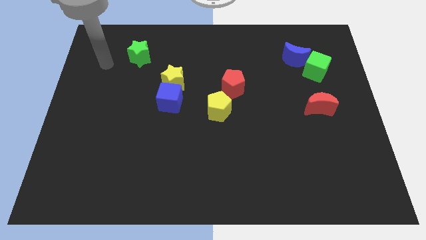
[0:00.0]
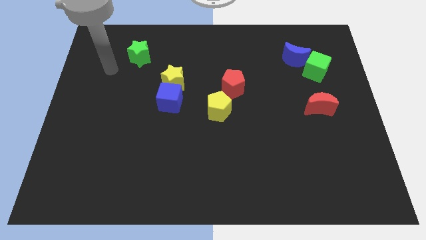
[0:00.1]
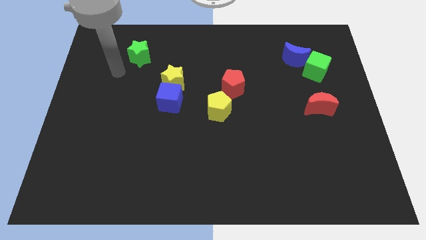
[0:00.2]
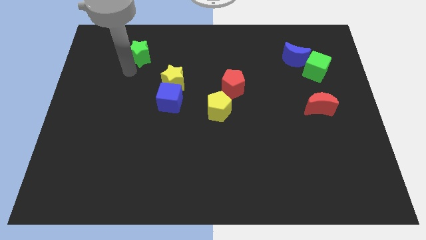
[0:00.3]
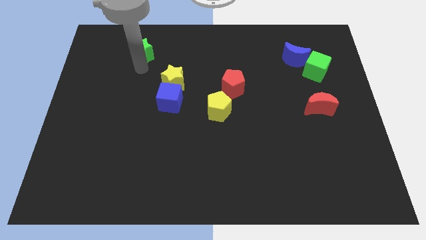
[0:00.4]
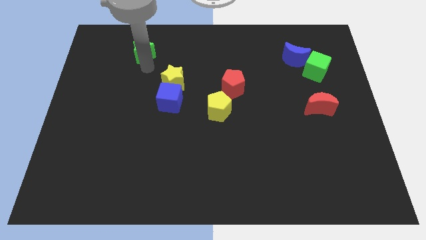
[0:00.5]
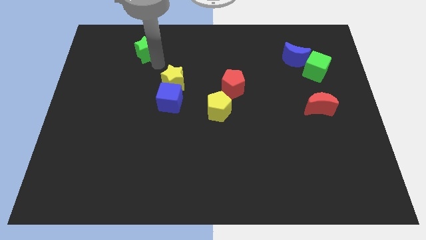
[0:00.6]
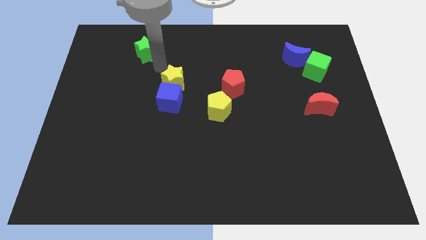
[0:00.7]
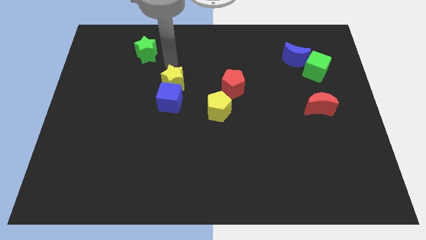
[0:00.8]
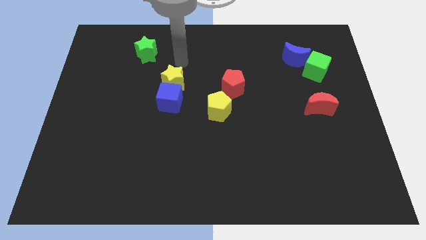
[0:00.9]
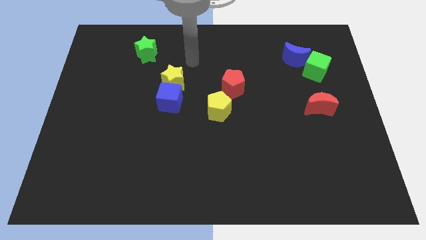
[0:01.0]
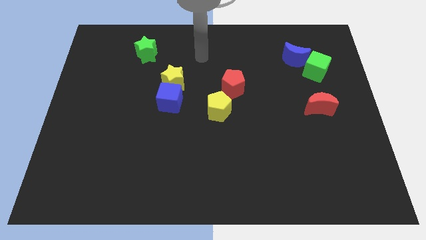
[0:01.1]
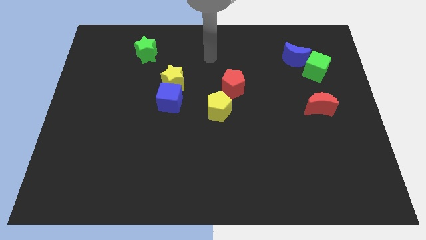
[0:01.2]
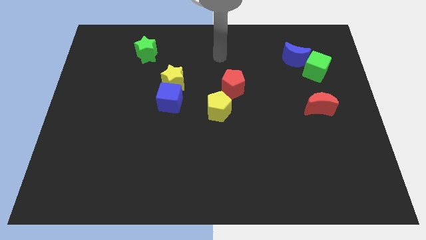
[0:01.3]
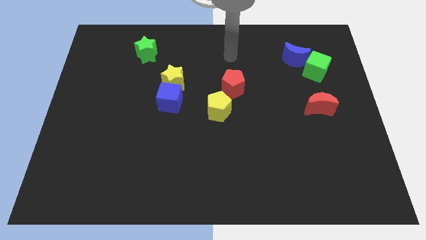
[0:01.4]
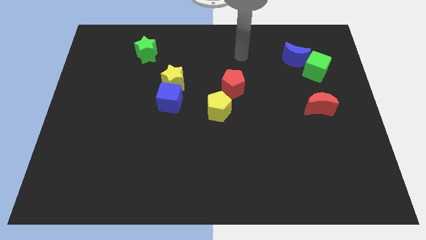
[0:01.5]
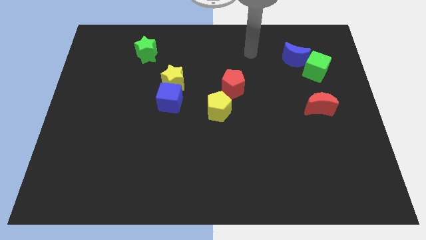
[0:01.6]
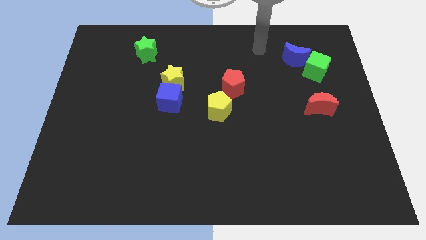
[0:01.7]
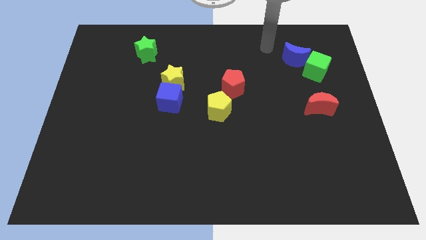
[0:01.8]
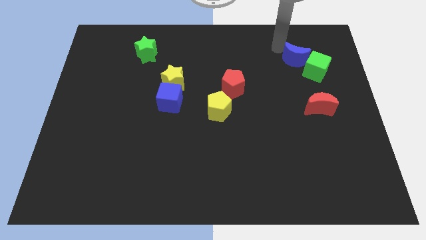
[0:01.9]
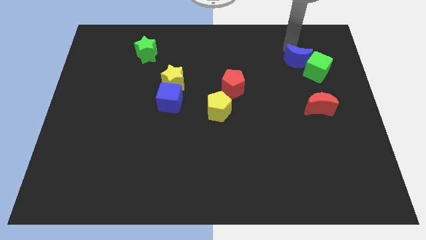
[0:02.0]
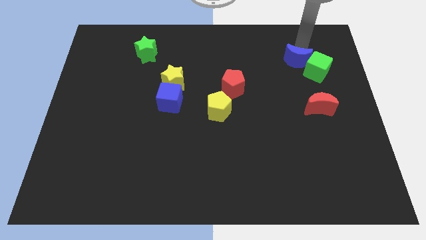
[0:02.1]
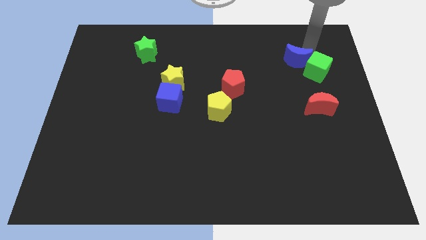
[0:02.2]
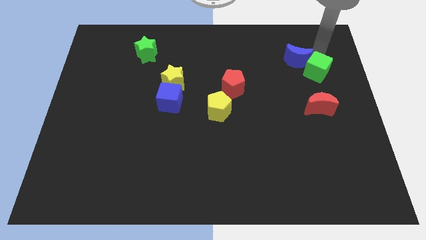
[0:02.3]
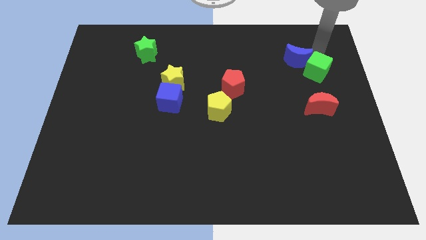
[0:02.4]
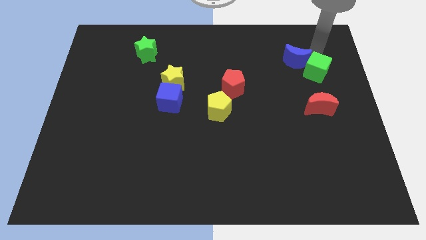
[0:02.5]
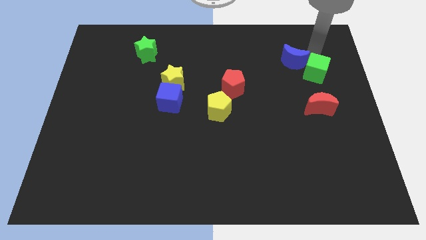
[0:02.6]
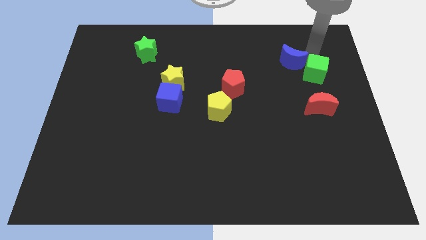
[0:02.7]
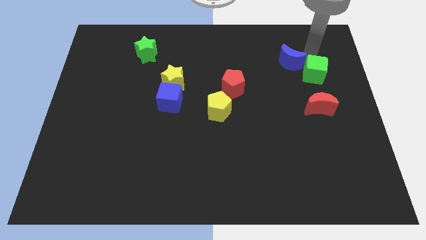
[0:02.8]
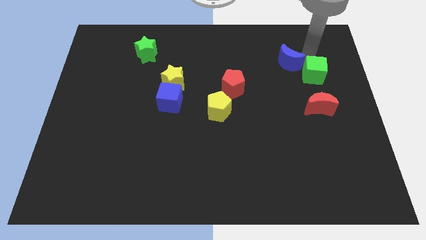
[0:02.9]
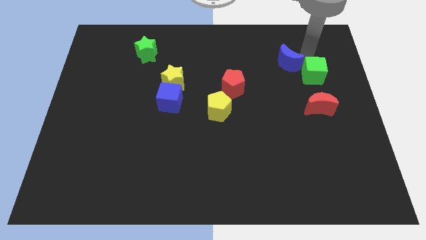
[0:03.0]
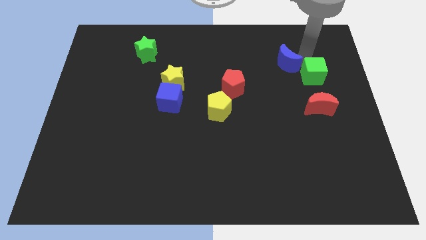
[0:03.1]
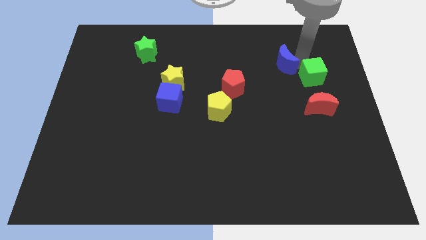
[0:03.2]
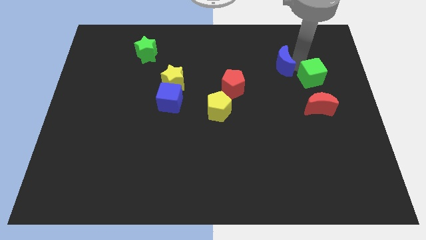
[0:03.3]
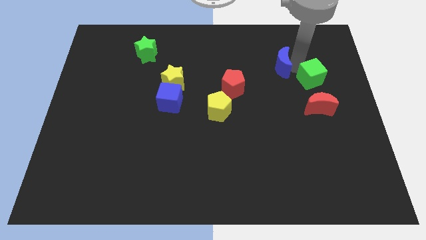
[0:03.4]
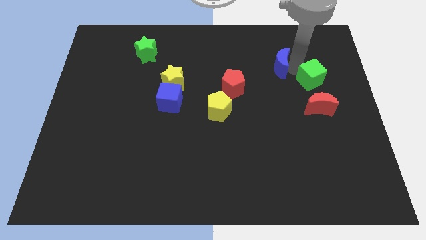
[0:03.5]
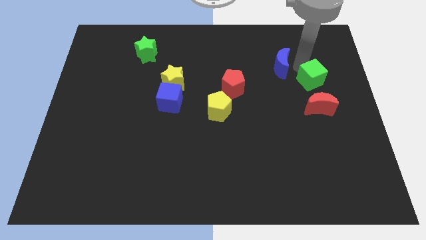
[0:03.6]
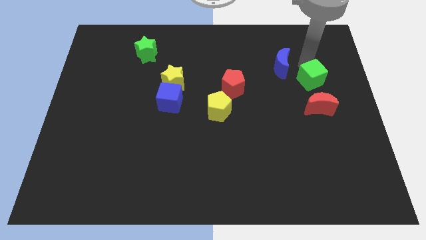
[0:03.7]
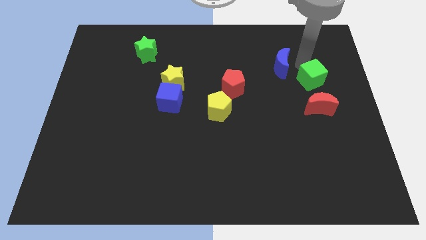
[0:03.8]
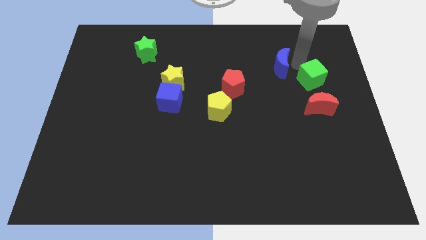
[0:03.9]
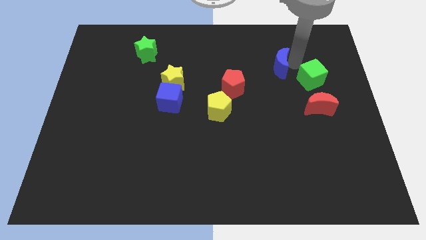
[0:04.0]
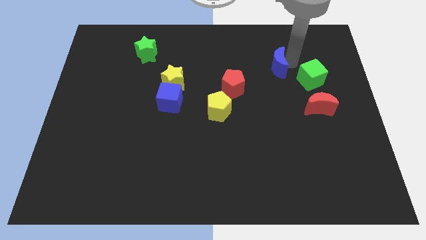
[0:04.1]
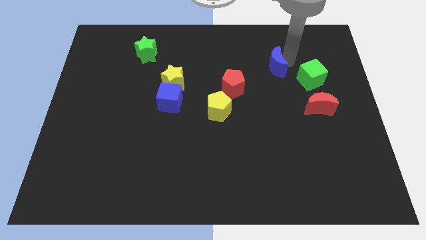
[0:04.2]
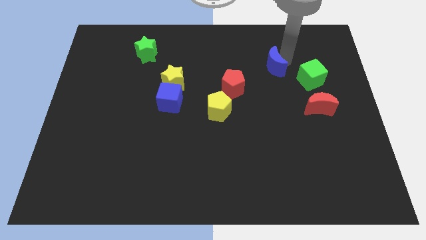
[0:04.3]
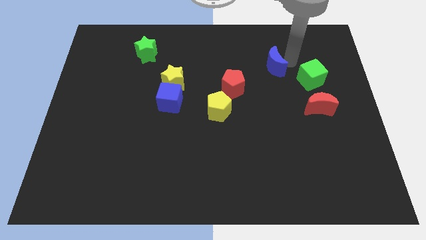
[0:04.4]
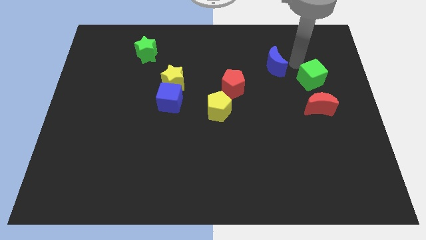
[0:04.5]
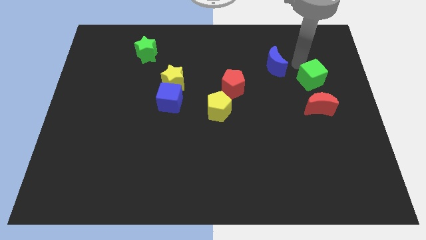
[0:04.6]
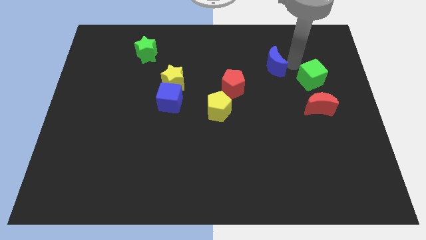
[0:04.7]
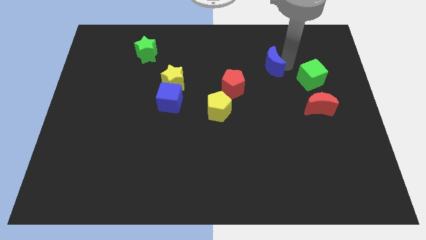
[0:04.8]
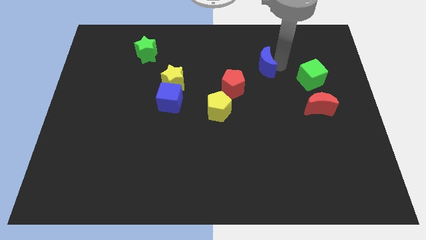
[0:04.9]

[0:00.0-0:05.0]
push the blue moon a little down and to the left

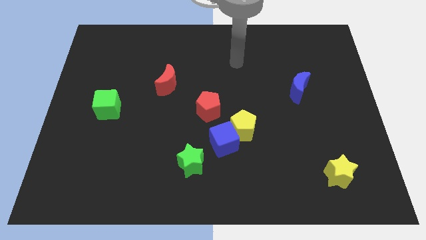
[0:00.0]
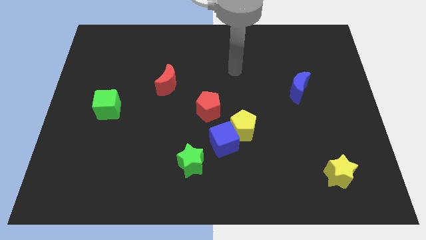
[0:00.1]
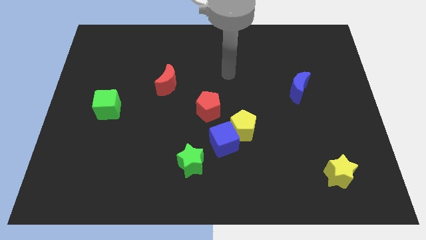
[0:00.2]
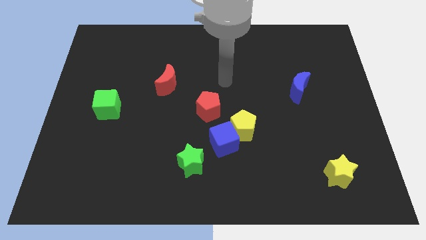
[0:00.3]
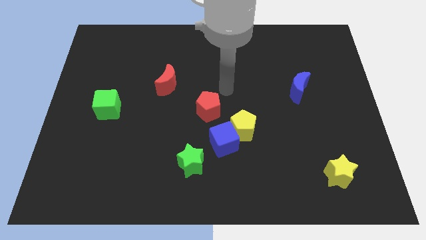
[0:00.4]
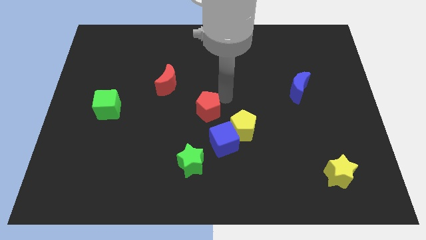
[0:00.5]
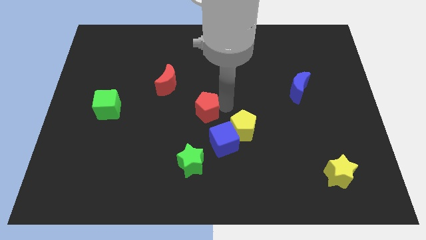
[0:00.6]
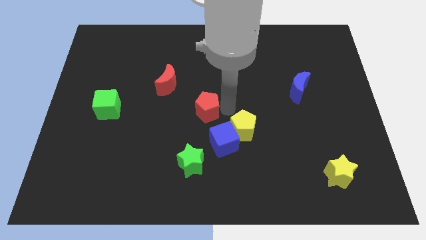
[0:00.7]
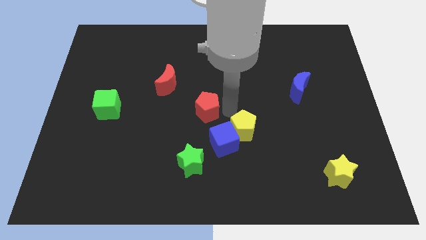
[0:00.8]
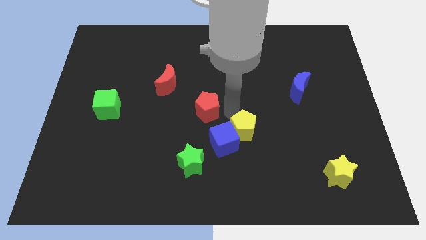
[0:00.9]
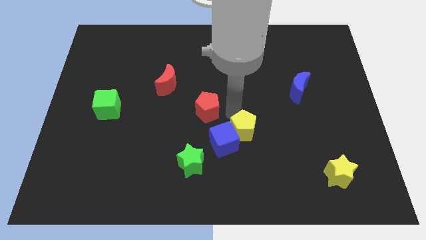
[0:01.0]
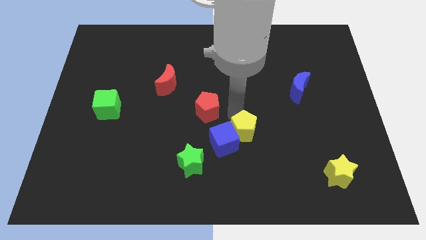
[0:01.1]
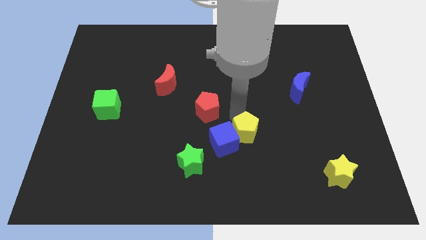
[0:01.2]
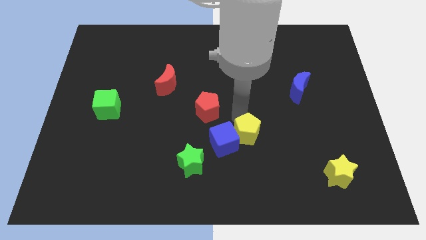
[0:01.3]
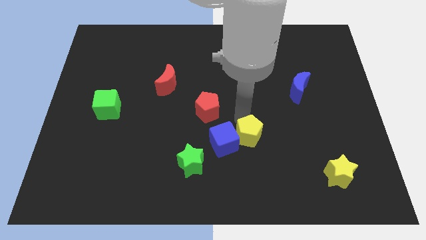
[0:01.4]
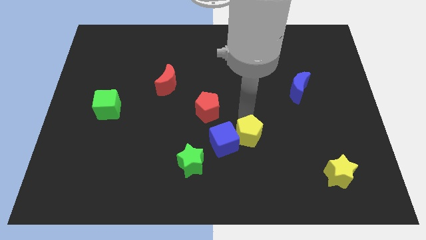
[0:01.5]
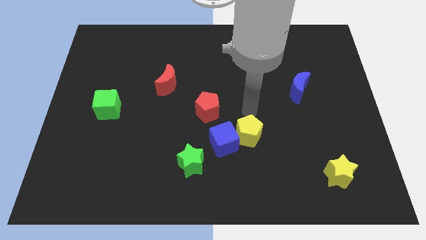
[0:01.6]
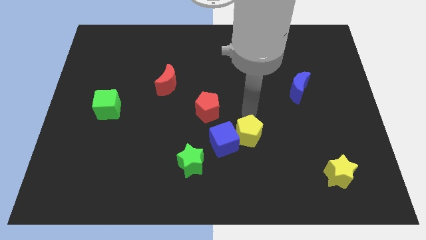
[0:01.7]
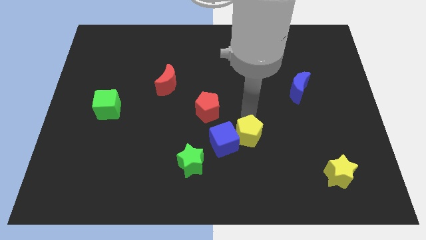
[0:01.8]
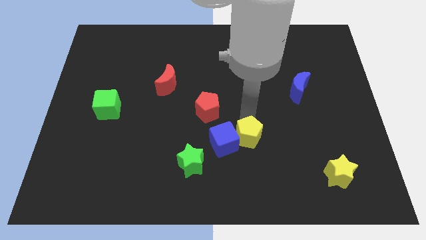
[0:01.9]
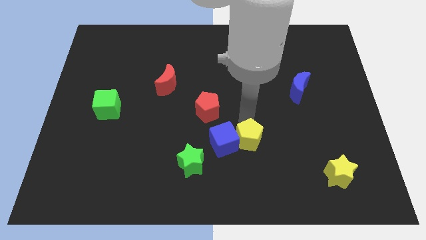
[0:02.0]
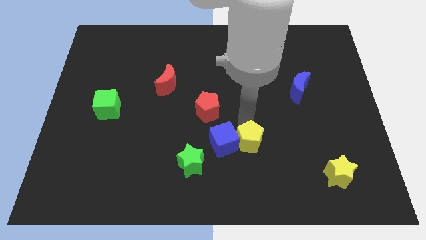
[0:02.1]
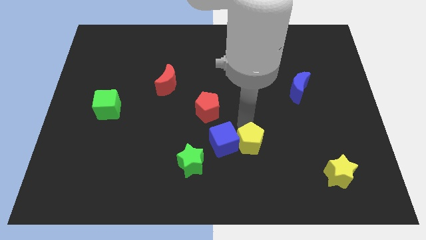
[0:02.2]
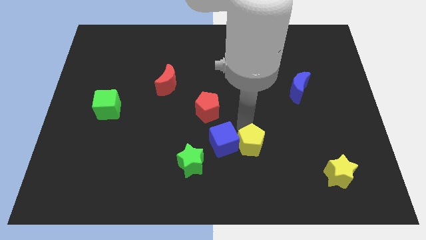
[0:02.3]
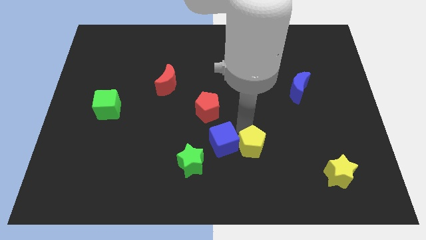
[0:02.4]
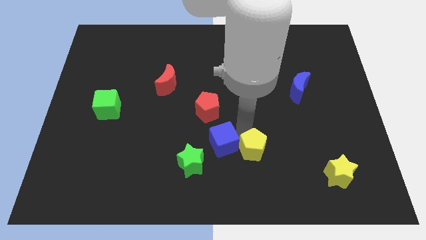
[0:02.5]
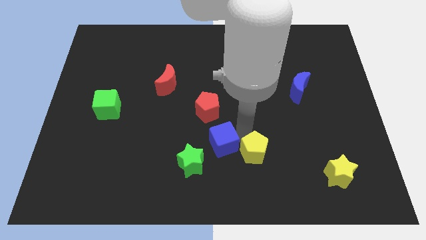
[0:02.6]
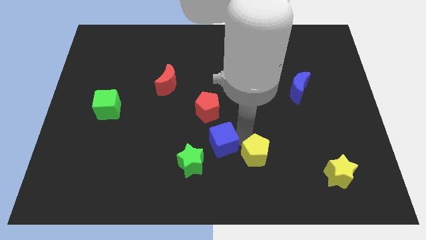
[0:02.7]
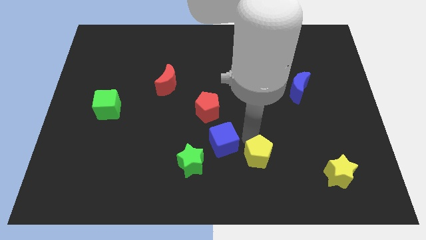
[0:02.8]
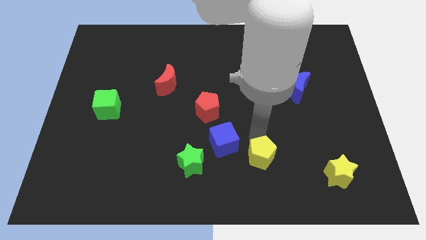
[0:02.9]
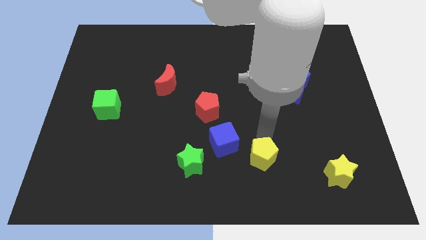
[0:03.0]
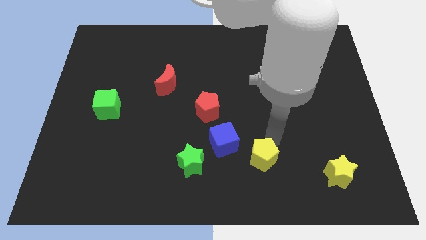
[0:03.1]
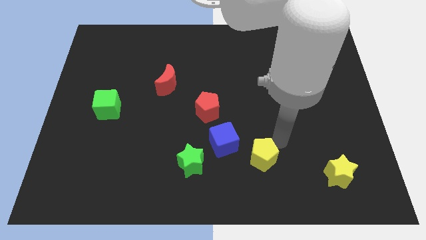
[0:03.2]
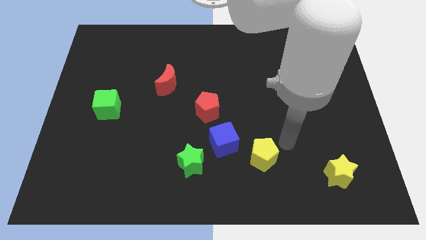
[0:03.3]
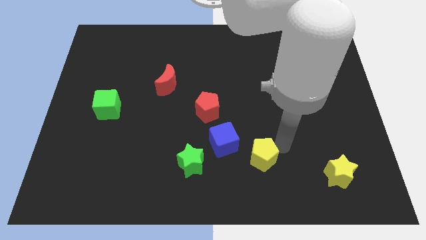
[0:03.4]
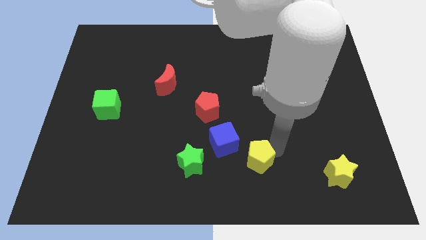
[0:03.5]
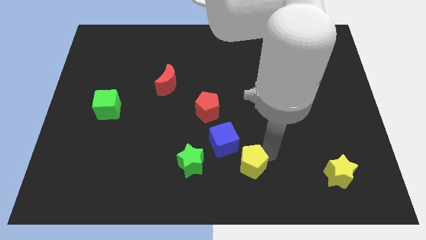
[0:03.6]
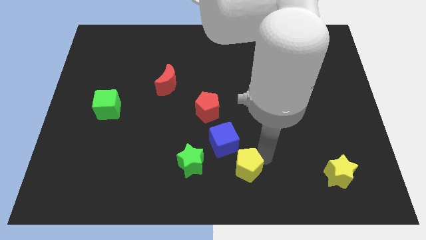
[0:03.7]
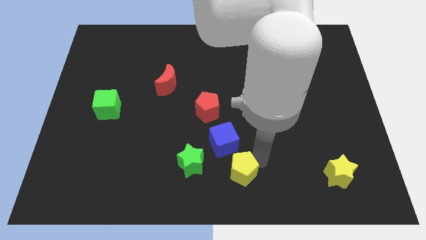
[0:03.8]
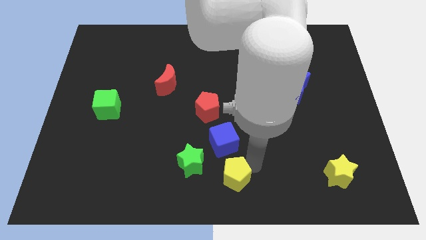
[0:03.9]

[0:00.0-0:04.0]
slightly slide the yellow pentagon diagonally downwards and left
